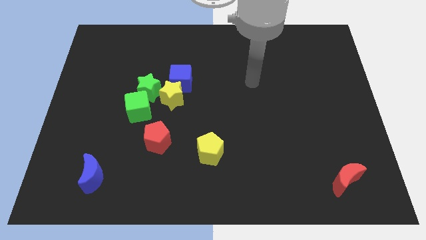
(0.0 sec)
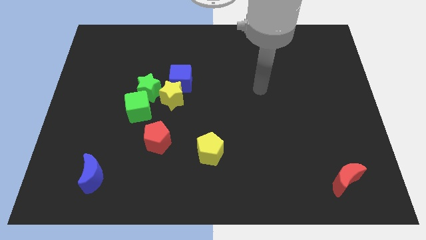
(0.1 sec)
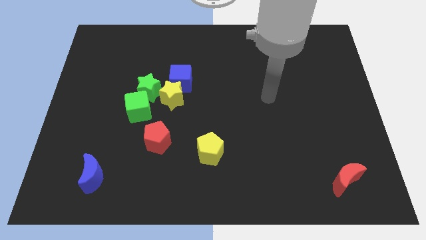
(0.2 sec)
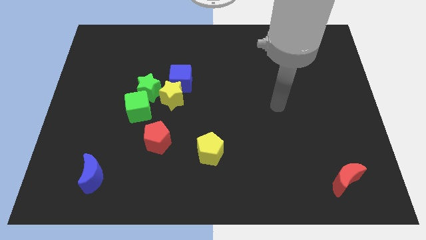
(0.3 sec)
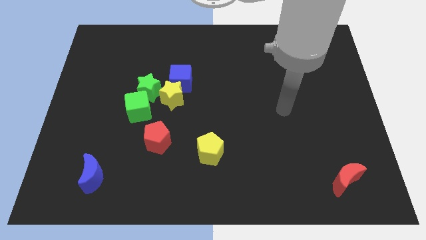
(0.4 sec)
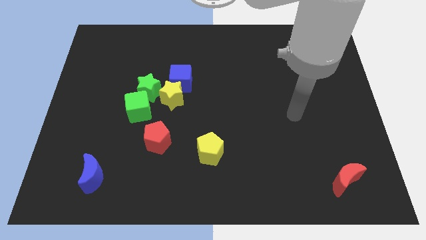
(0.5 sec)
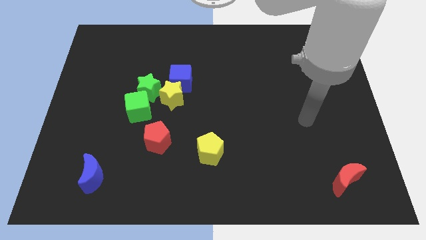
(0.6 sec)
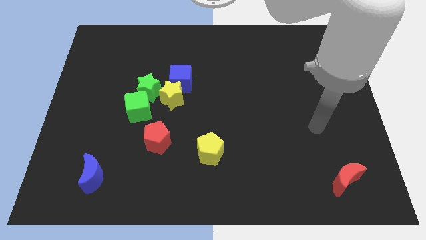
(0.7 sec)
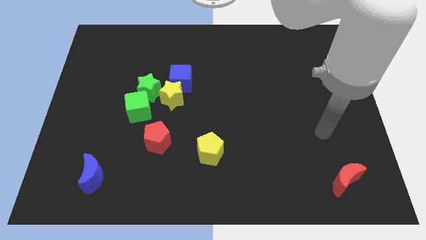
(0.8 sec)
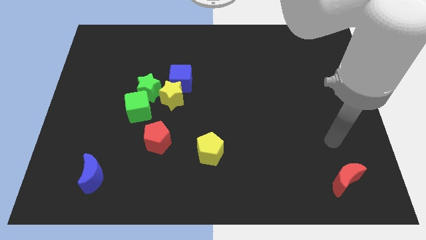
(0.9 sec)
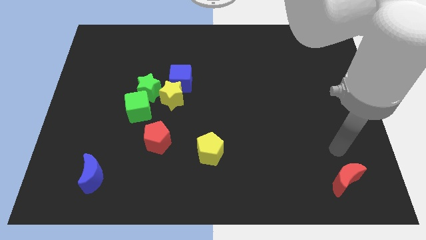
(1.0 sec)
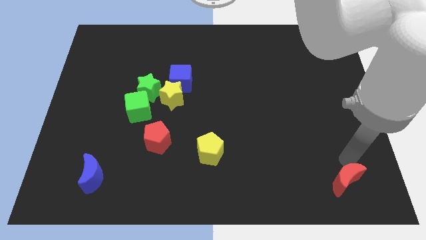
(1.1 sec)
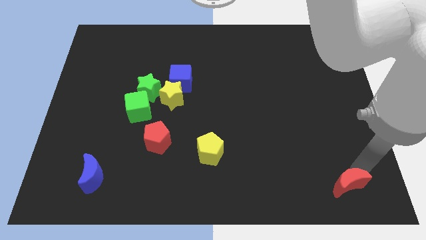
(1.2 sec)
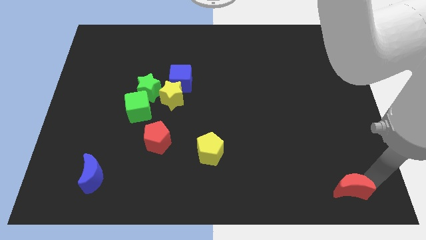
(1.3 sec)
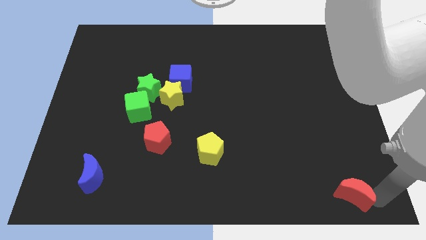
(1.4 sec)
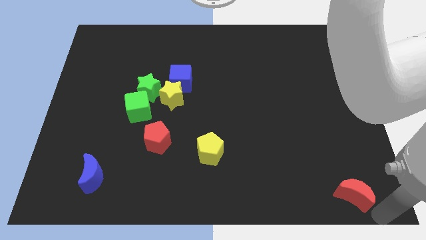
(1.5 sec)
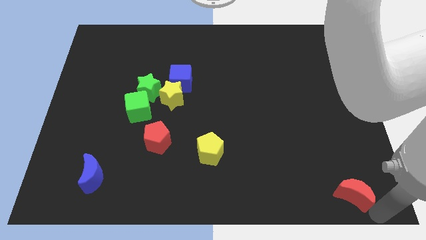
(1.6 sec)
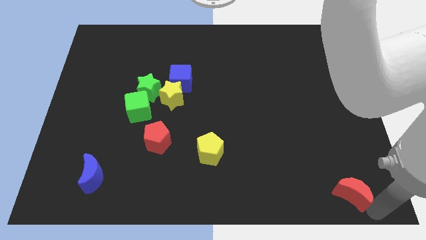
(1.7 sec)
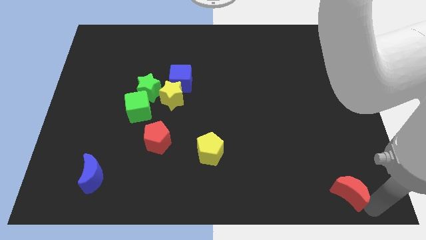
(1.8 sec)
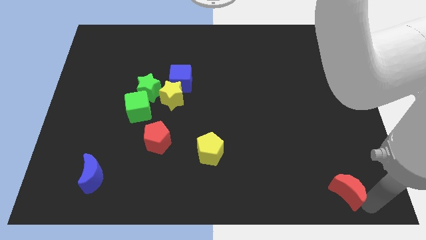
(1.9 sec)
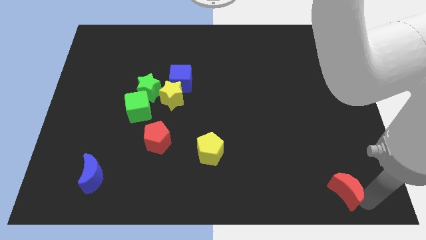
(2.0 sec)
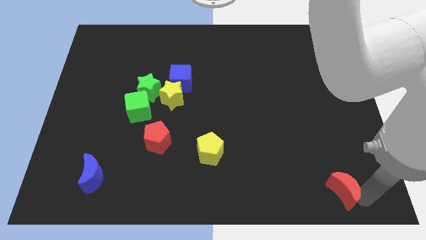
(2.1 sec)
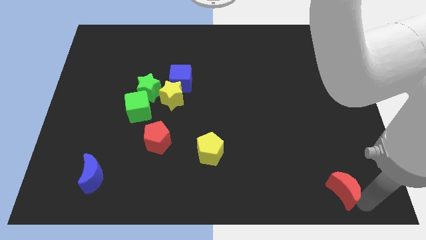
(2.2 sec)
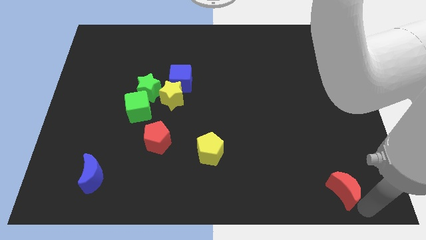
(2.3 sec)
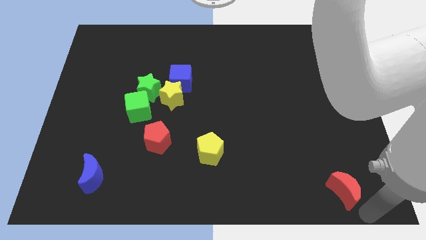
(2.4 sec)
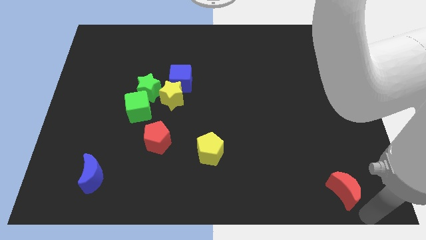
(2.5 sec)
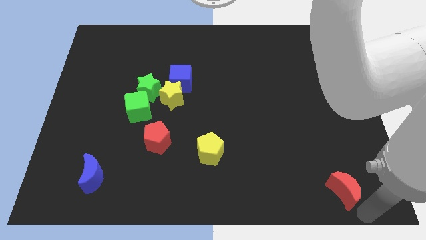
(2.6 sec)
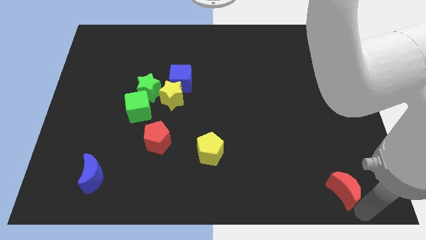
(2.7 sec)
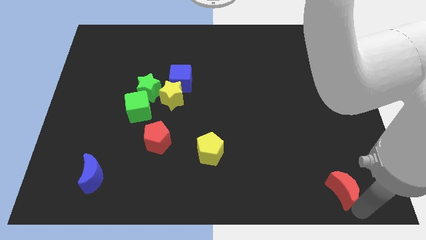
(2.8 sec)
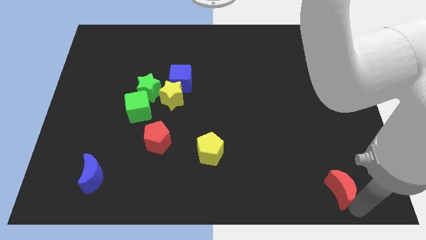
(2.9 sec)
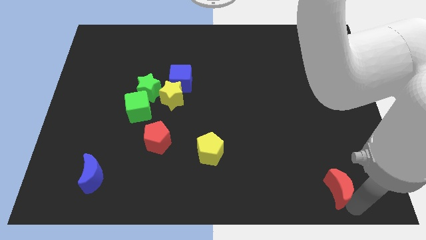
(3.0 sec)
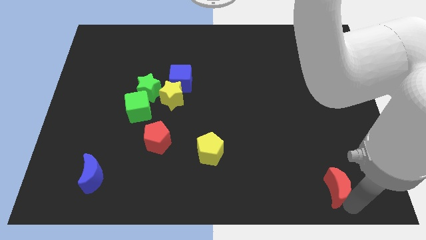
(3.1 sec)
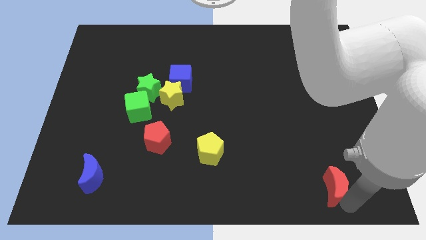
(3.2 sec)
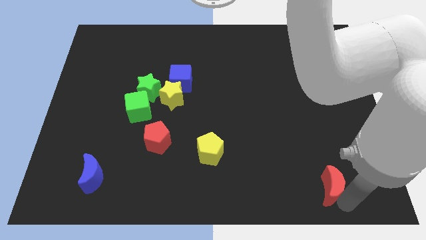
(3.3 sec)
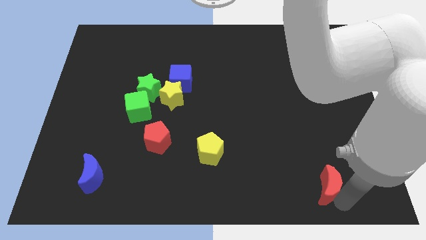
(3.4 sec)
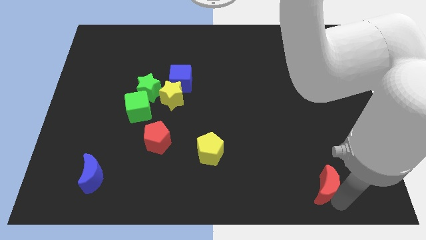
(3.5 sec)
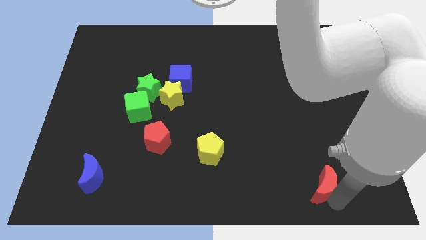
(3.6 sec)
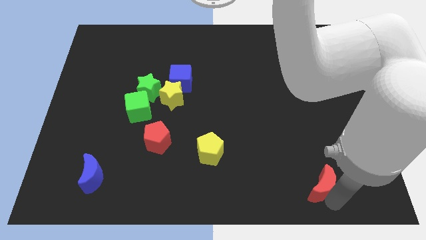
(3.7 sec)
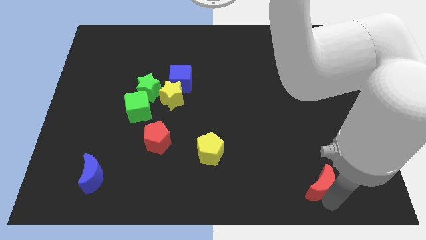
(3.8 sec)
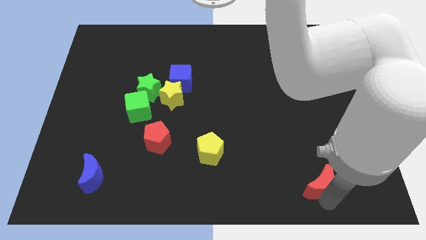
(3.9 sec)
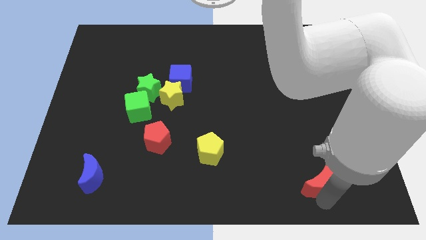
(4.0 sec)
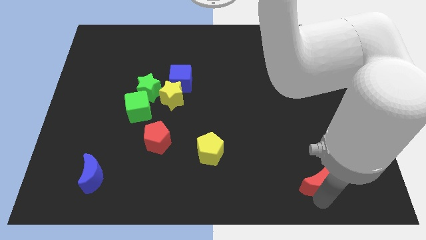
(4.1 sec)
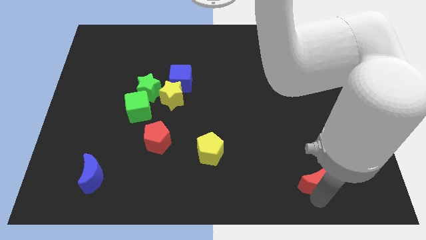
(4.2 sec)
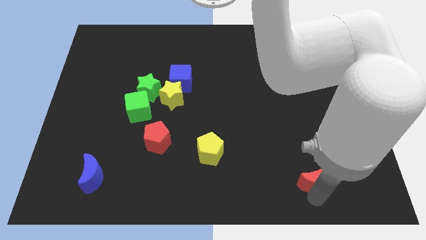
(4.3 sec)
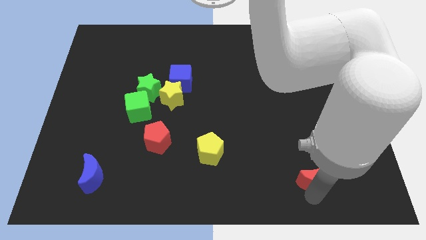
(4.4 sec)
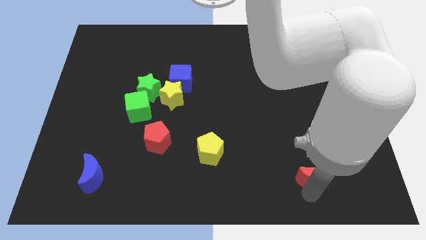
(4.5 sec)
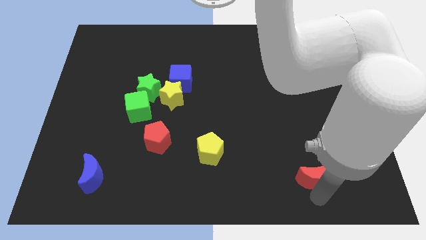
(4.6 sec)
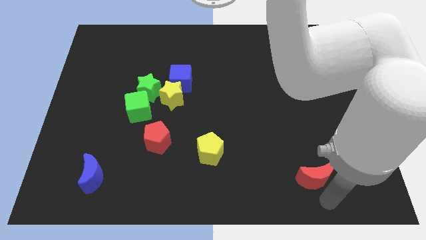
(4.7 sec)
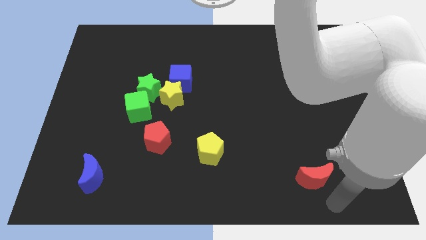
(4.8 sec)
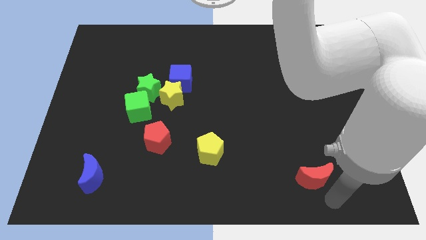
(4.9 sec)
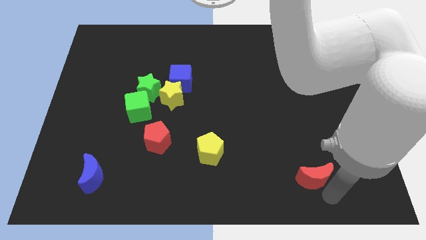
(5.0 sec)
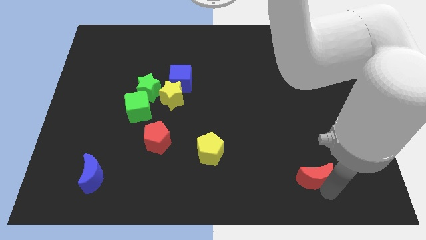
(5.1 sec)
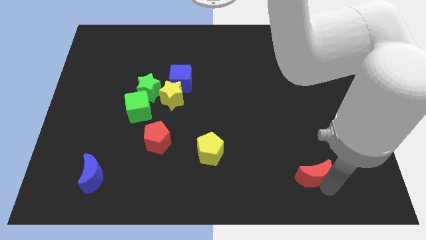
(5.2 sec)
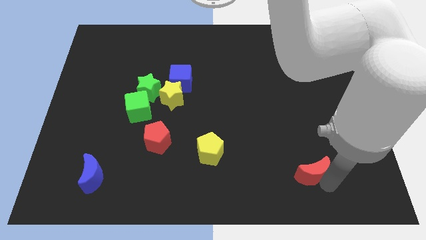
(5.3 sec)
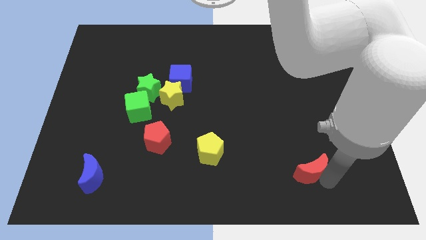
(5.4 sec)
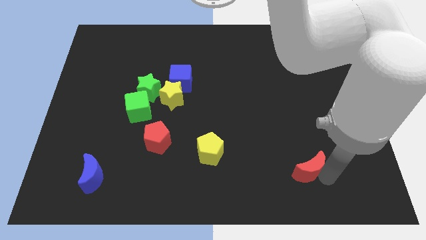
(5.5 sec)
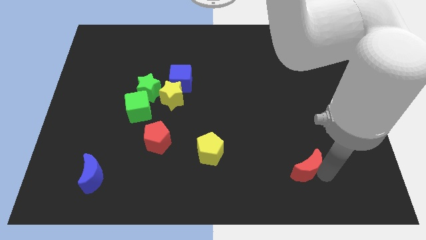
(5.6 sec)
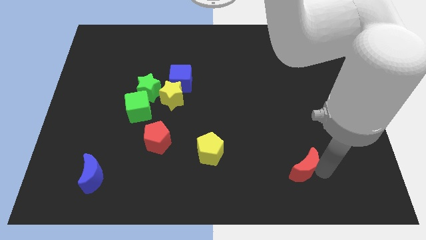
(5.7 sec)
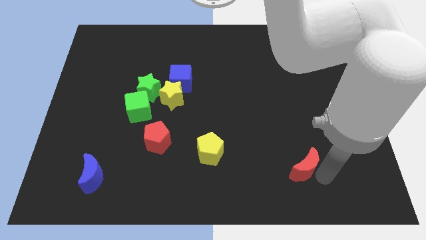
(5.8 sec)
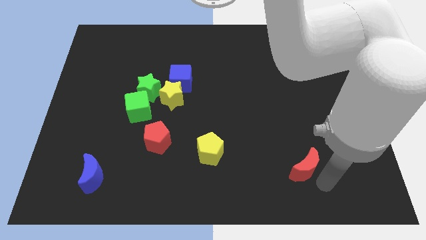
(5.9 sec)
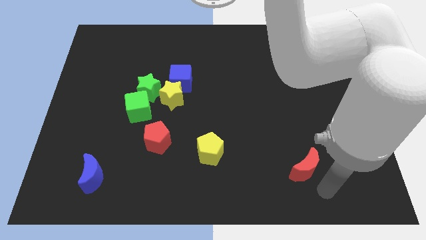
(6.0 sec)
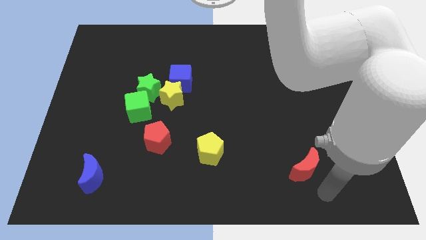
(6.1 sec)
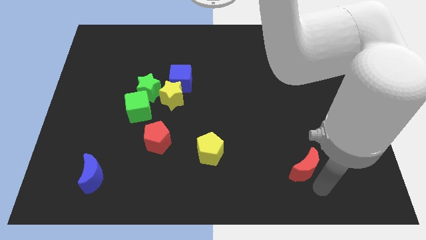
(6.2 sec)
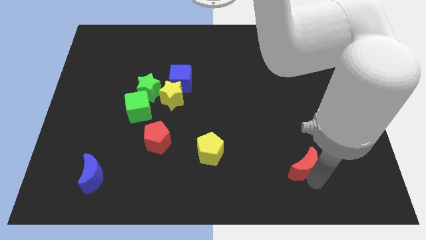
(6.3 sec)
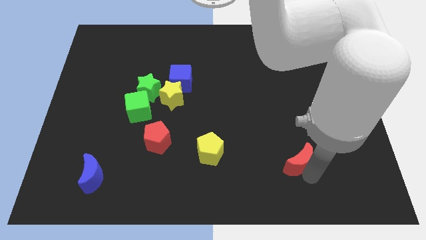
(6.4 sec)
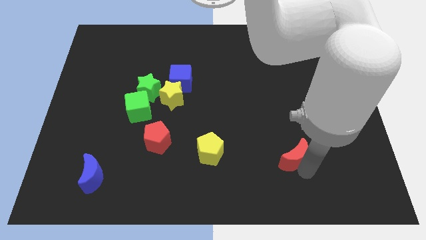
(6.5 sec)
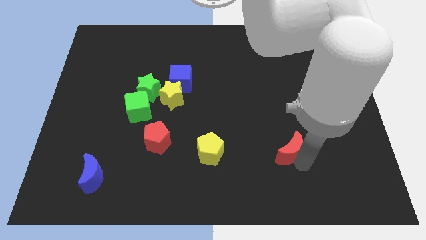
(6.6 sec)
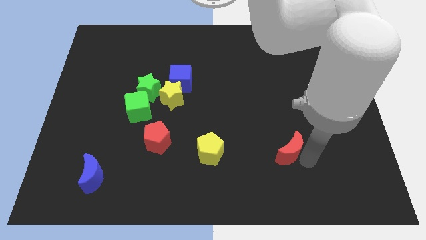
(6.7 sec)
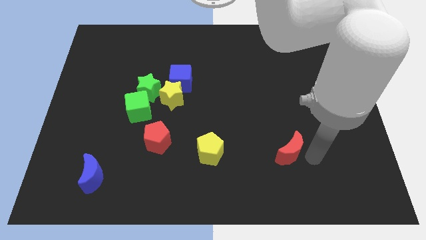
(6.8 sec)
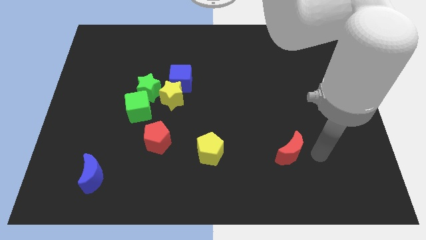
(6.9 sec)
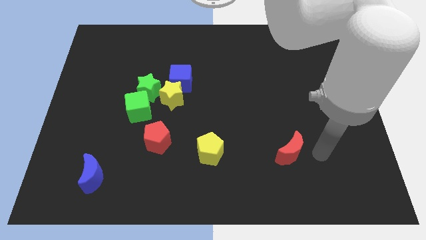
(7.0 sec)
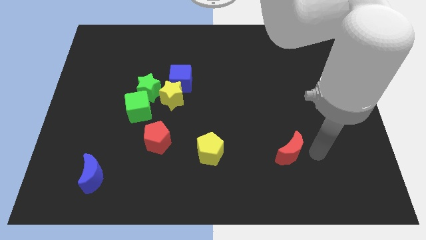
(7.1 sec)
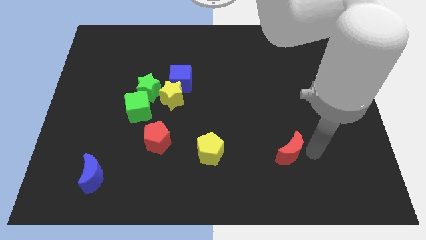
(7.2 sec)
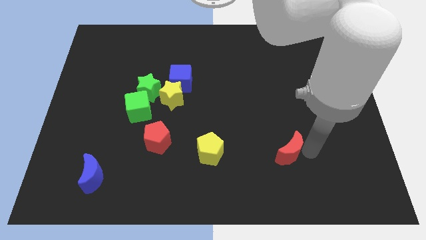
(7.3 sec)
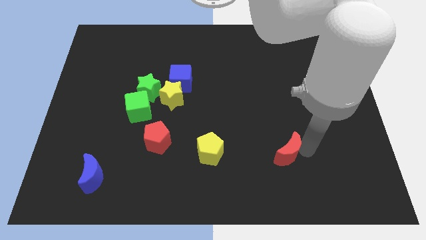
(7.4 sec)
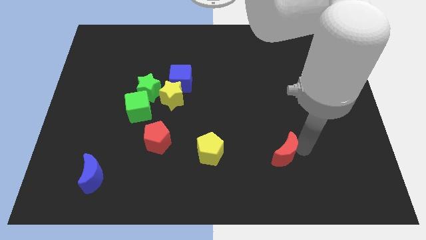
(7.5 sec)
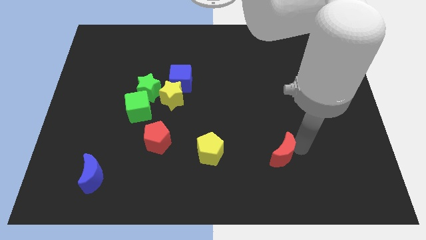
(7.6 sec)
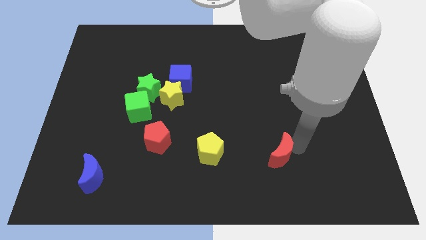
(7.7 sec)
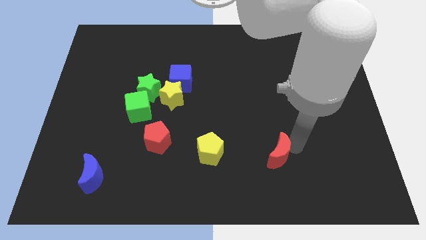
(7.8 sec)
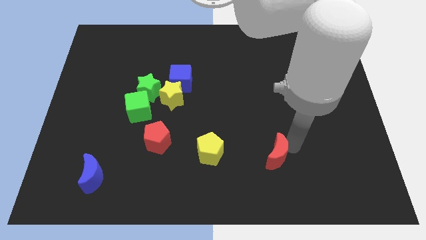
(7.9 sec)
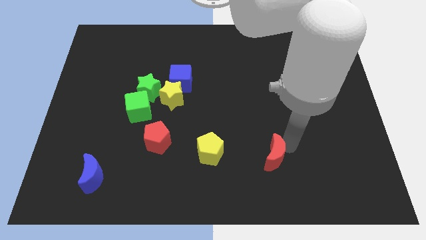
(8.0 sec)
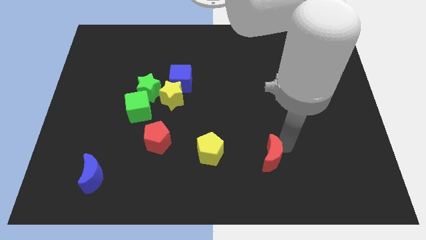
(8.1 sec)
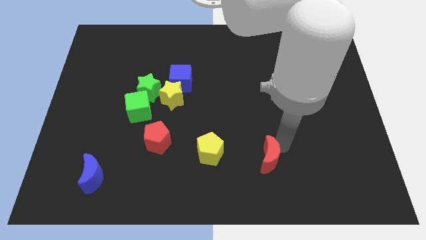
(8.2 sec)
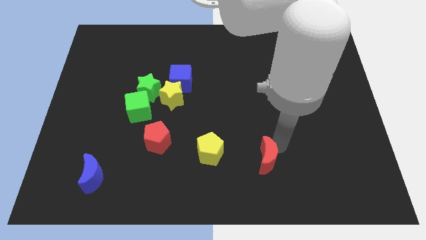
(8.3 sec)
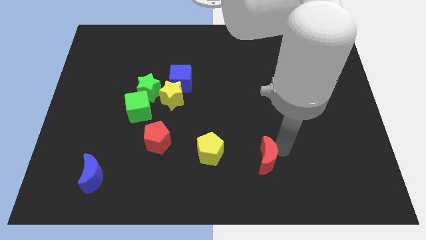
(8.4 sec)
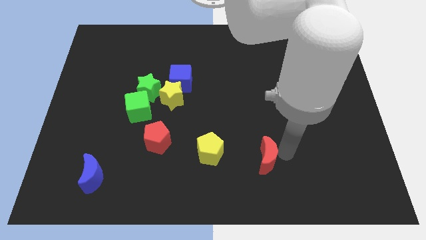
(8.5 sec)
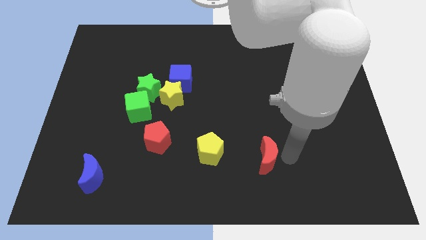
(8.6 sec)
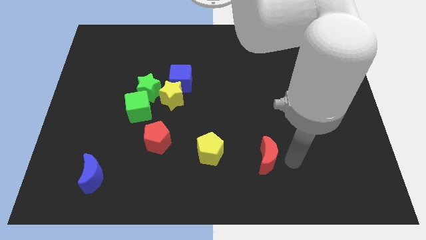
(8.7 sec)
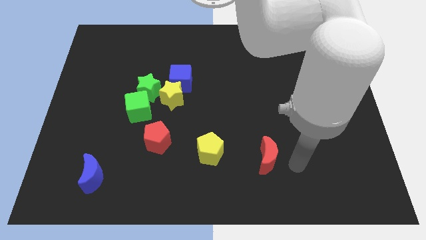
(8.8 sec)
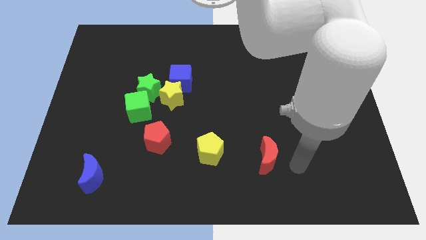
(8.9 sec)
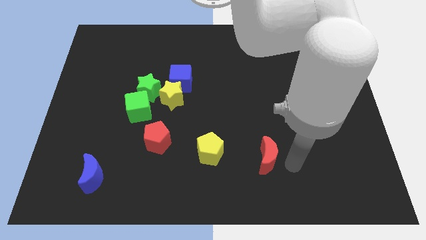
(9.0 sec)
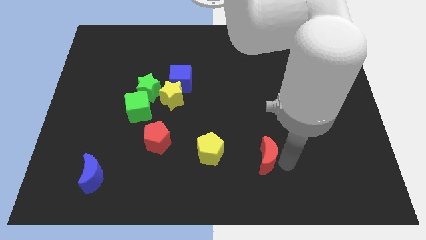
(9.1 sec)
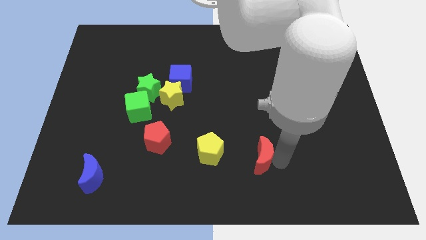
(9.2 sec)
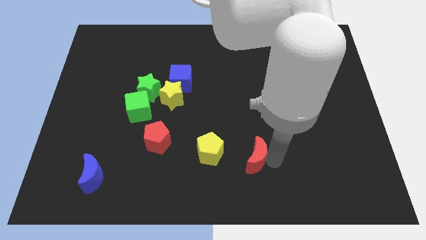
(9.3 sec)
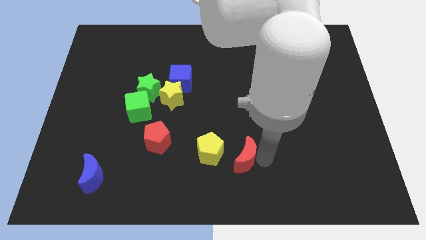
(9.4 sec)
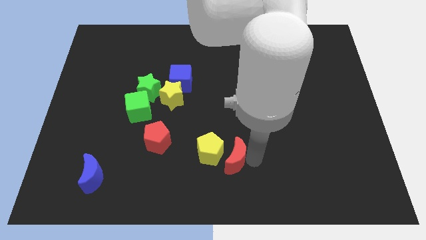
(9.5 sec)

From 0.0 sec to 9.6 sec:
push the red moon towards the yellow pentagon
